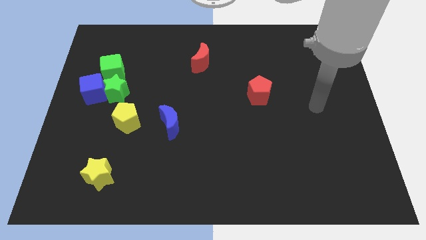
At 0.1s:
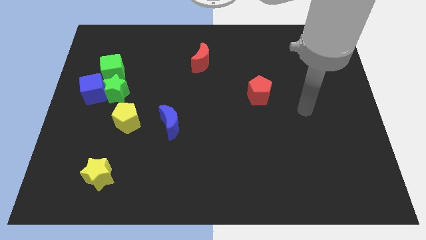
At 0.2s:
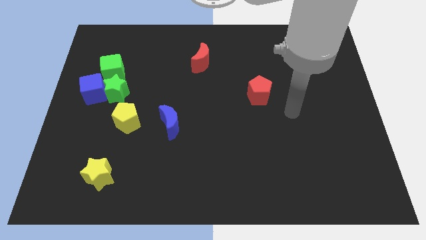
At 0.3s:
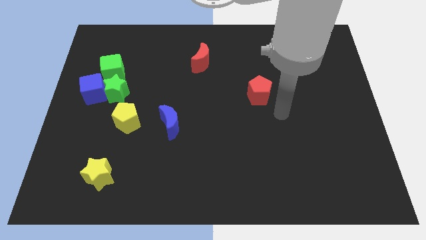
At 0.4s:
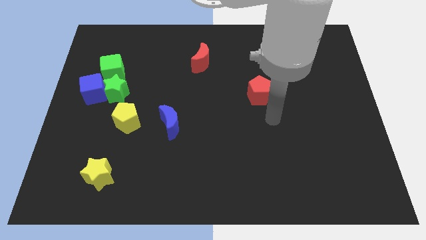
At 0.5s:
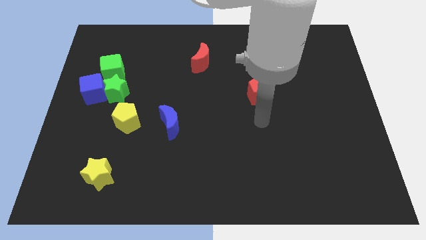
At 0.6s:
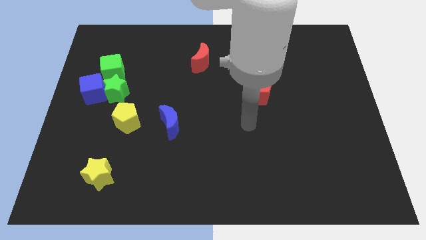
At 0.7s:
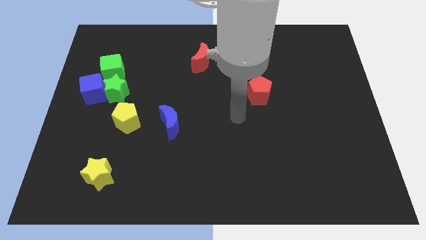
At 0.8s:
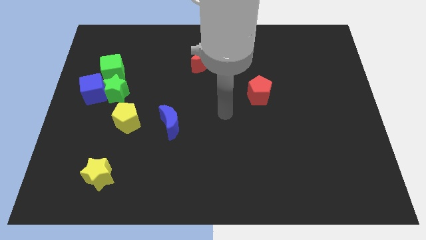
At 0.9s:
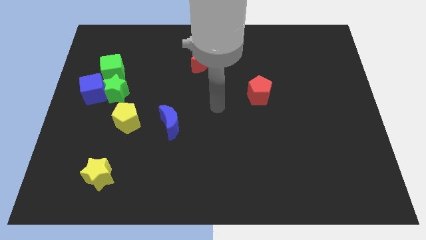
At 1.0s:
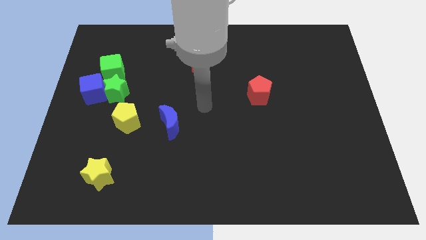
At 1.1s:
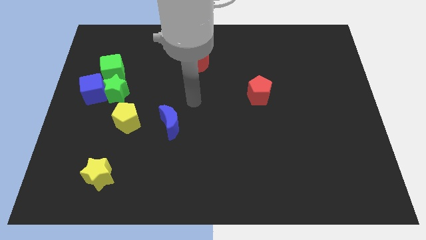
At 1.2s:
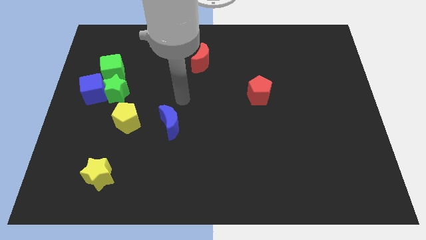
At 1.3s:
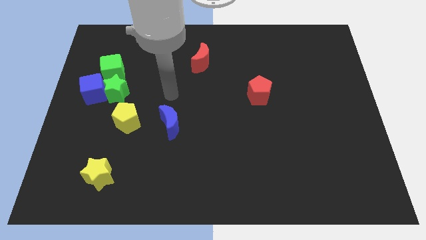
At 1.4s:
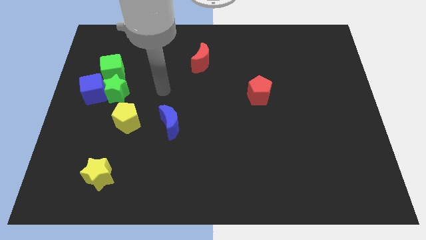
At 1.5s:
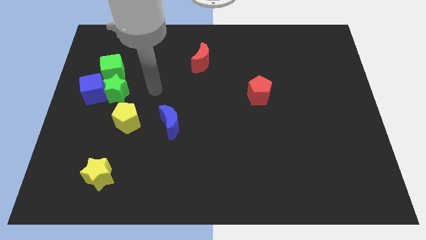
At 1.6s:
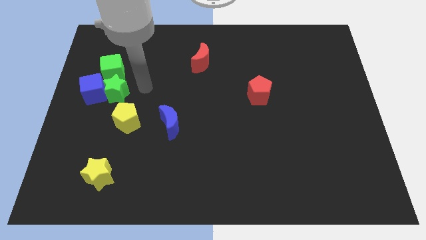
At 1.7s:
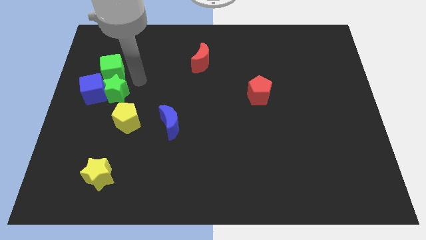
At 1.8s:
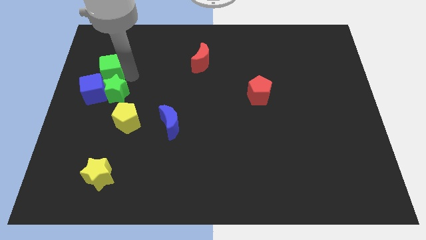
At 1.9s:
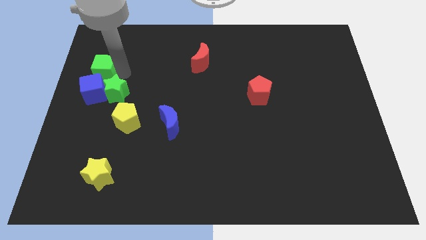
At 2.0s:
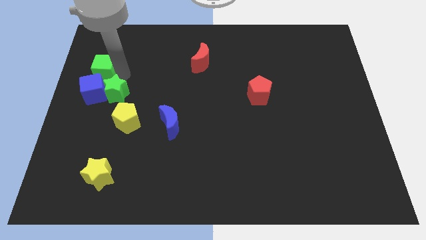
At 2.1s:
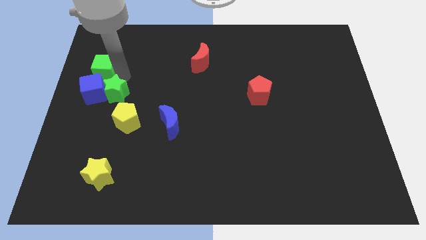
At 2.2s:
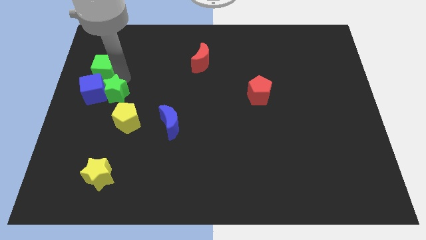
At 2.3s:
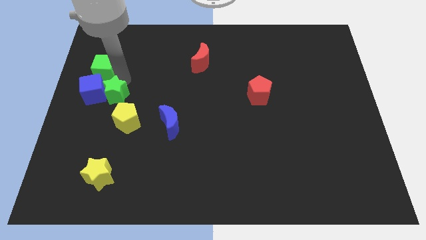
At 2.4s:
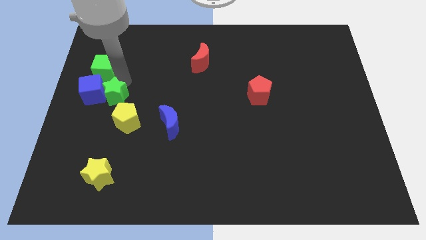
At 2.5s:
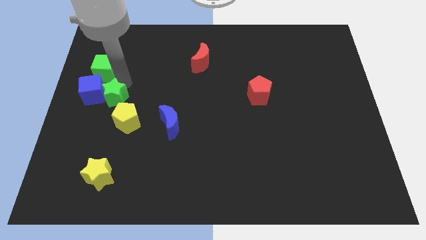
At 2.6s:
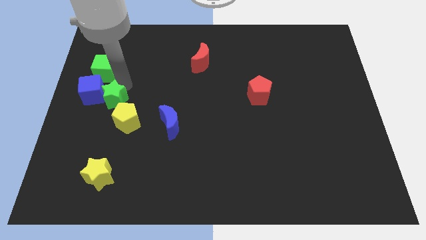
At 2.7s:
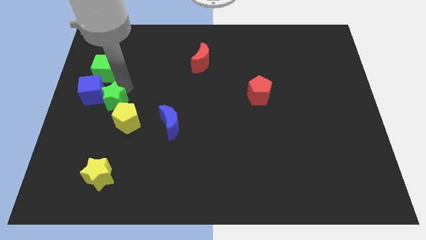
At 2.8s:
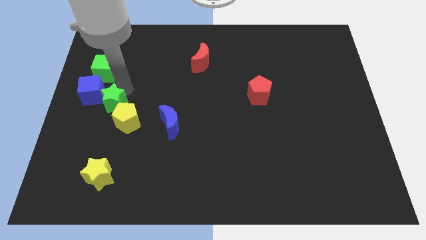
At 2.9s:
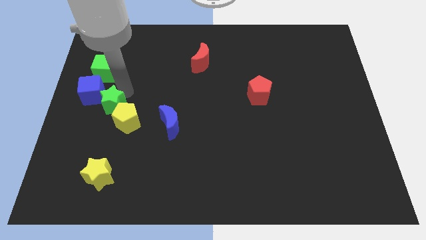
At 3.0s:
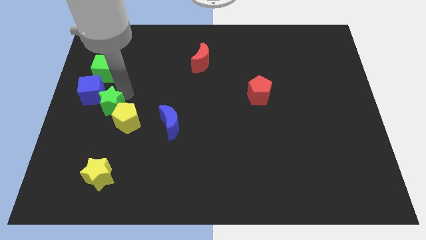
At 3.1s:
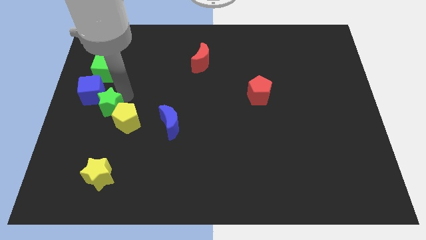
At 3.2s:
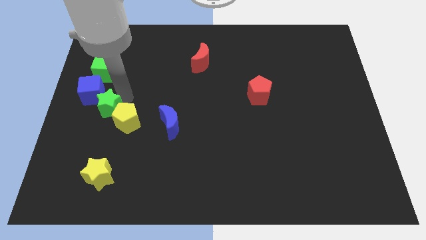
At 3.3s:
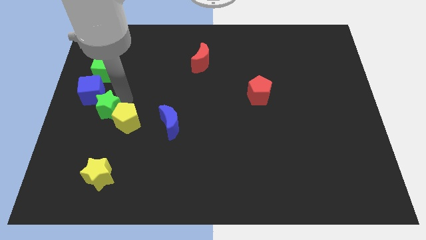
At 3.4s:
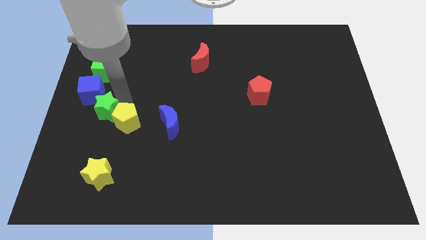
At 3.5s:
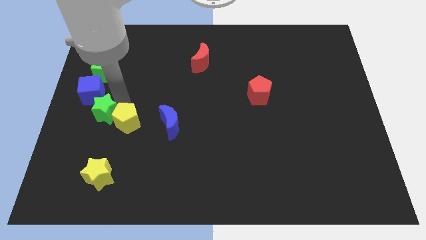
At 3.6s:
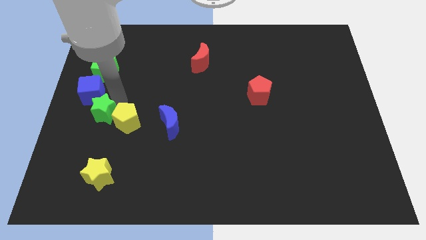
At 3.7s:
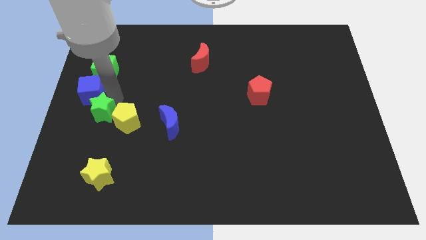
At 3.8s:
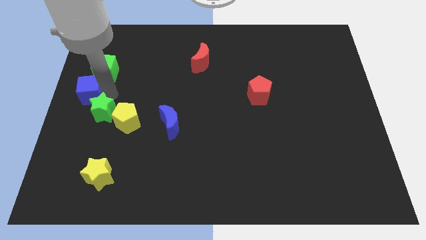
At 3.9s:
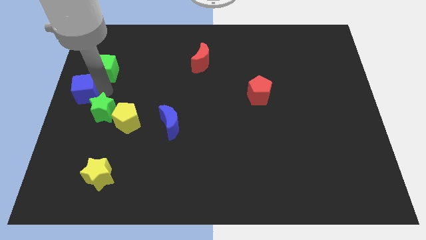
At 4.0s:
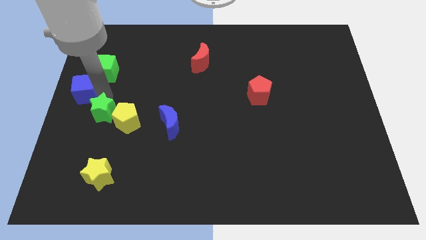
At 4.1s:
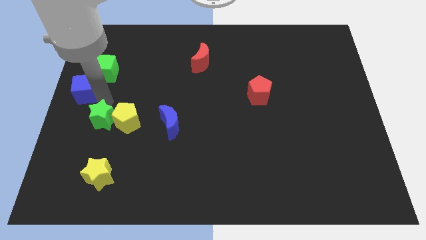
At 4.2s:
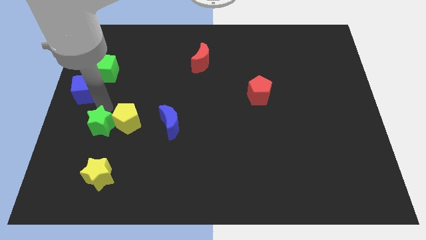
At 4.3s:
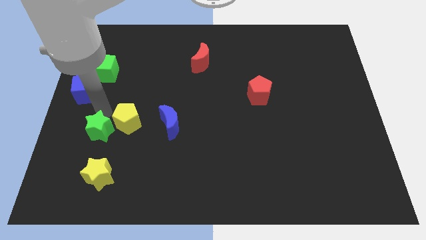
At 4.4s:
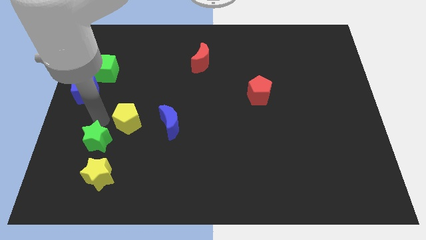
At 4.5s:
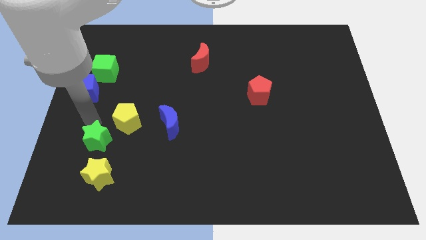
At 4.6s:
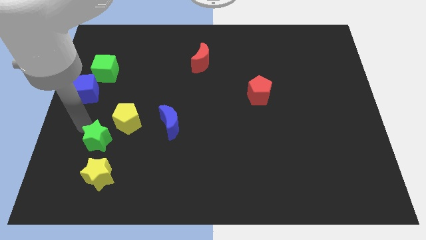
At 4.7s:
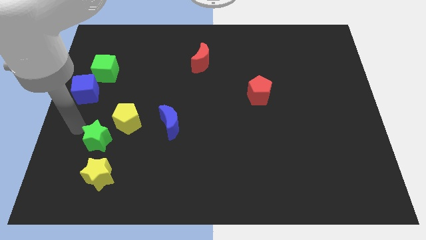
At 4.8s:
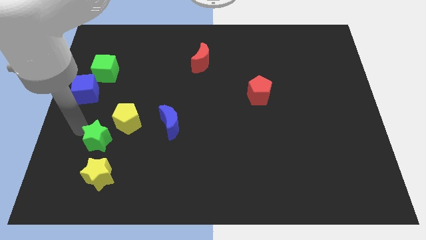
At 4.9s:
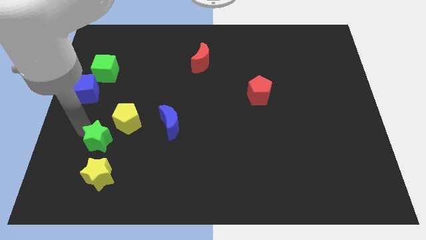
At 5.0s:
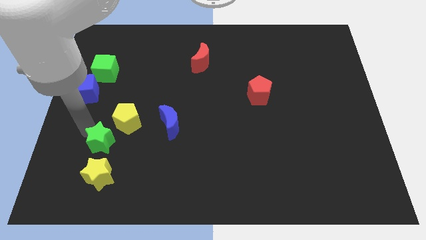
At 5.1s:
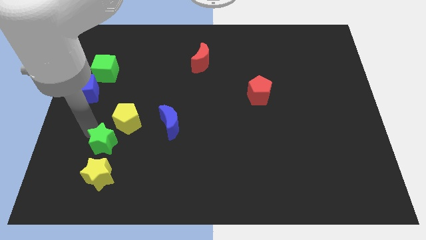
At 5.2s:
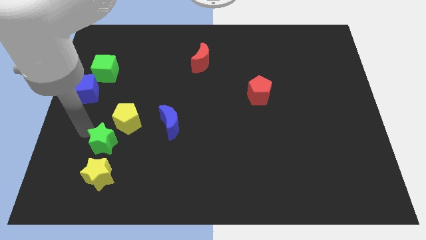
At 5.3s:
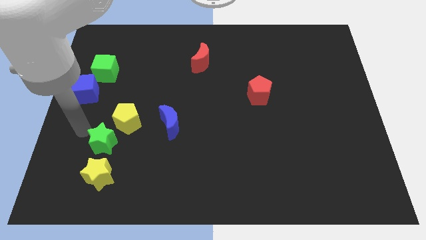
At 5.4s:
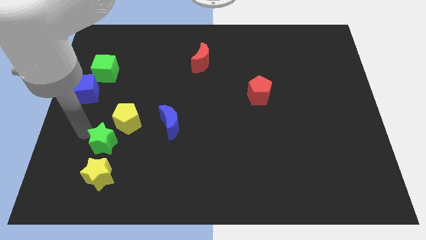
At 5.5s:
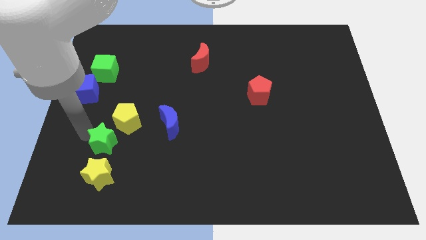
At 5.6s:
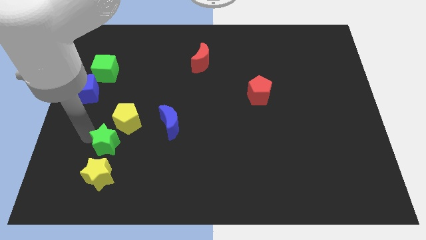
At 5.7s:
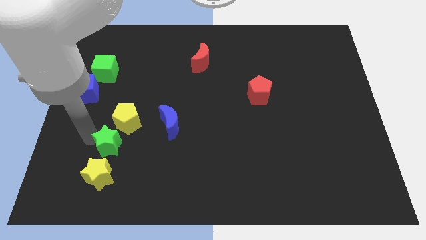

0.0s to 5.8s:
slide the green star diagonally up and to the right of the yellow star

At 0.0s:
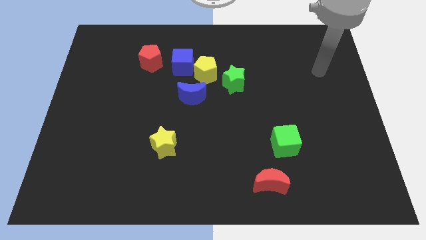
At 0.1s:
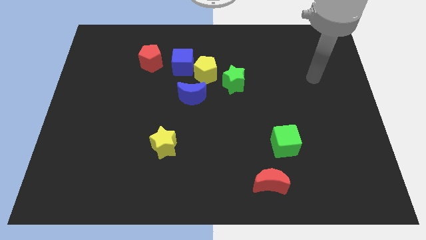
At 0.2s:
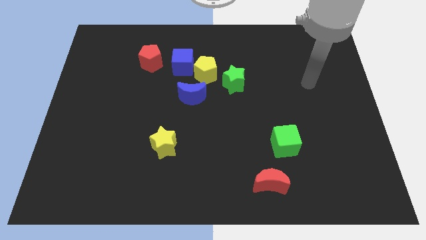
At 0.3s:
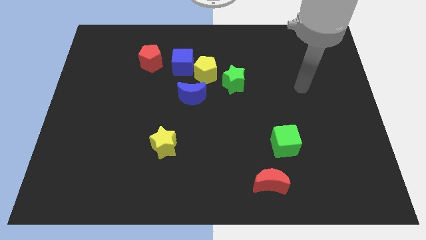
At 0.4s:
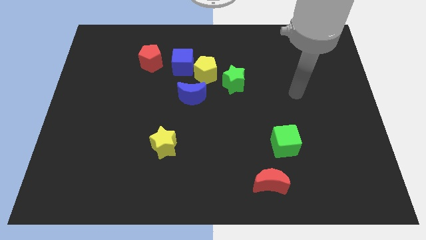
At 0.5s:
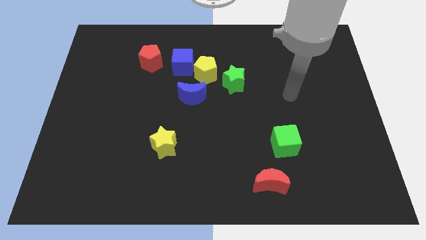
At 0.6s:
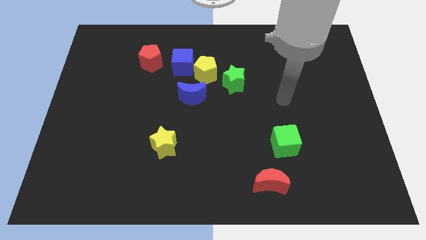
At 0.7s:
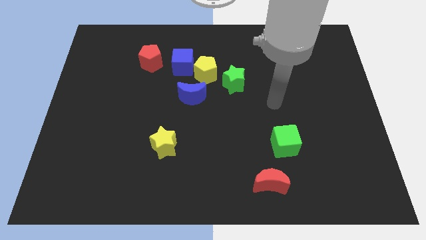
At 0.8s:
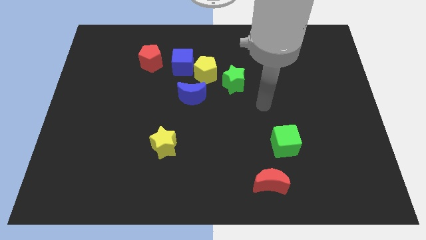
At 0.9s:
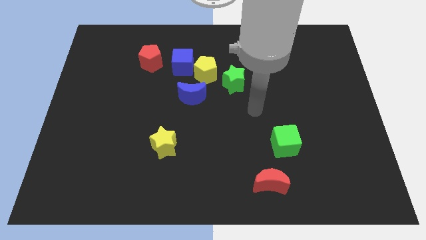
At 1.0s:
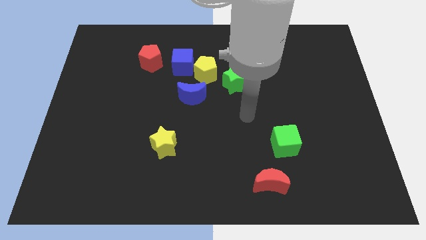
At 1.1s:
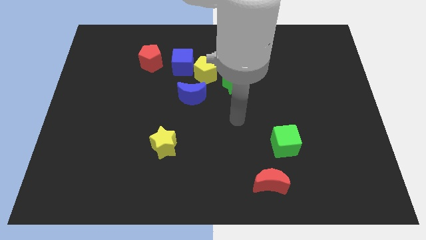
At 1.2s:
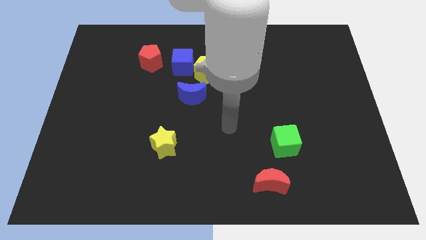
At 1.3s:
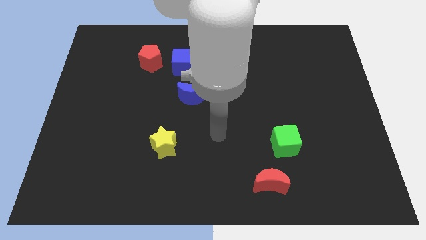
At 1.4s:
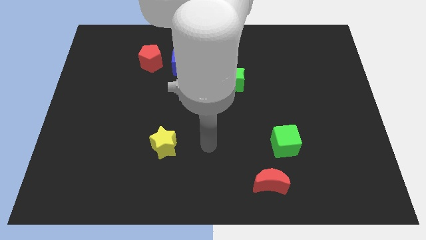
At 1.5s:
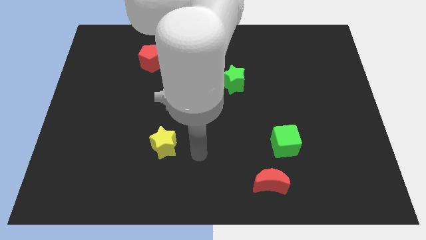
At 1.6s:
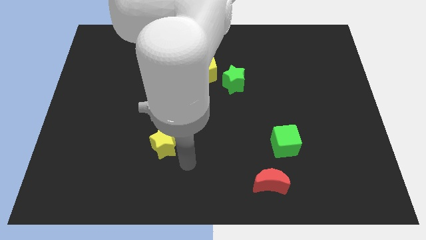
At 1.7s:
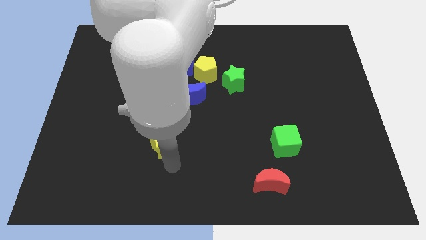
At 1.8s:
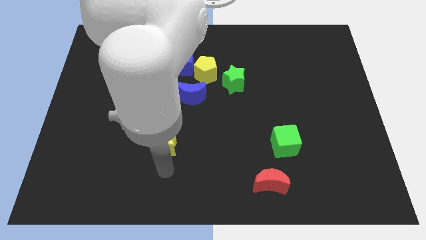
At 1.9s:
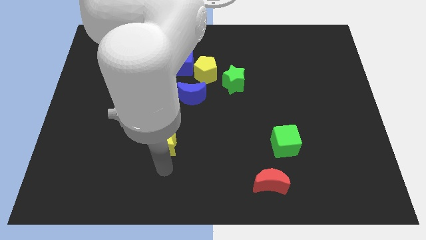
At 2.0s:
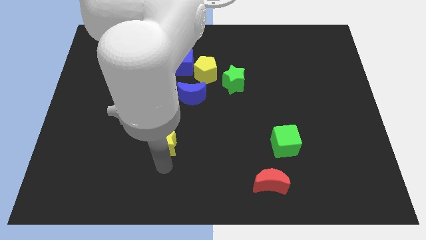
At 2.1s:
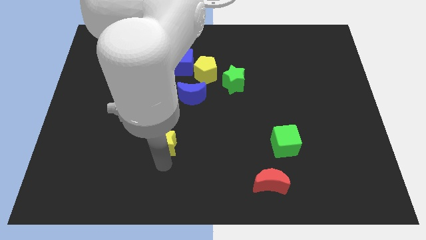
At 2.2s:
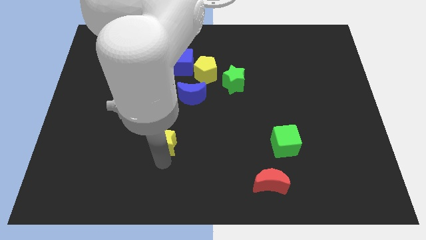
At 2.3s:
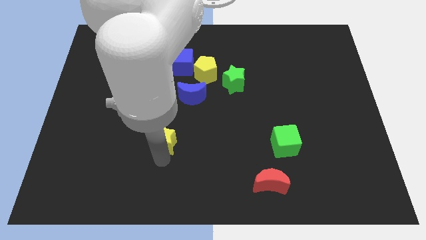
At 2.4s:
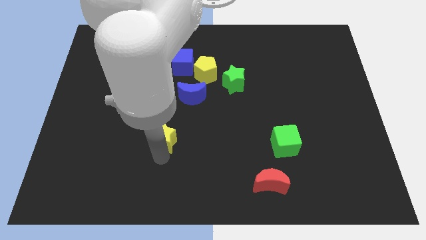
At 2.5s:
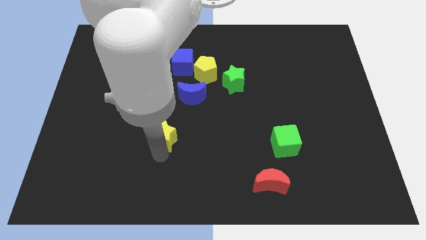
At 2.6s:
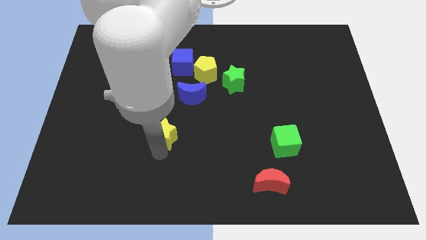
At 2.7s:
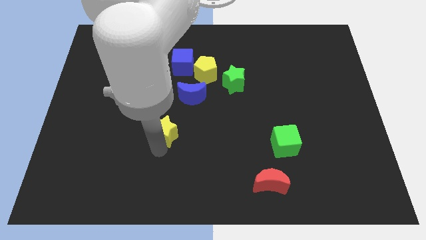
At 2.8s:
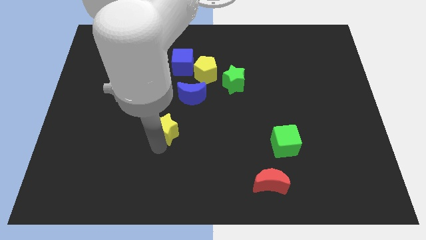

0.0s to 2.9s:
move the yellow star to the bottom left side of the blue moon
